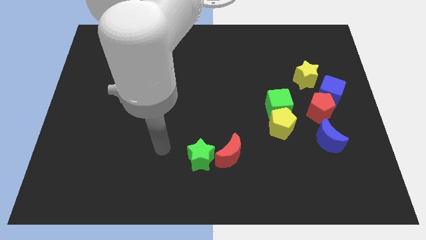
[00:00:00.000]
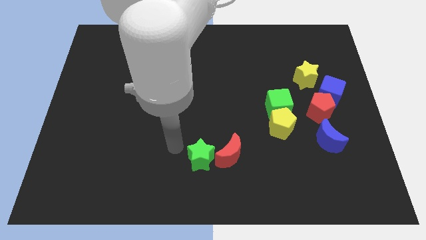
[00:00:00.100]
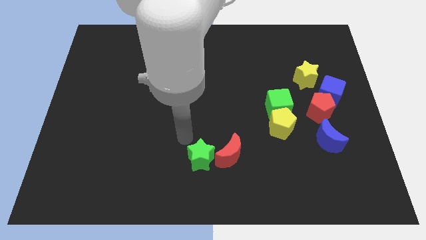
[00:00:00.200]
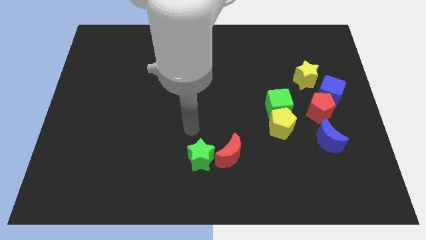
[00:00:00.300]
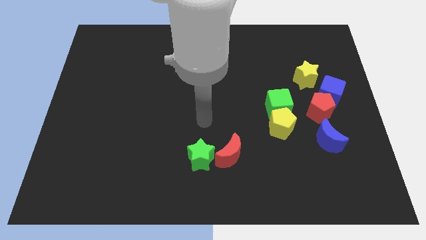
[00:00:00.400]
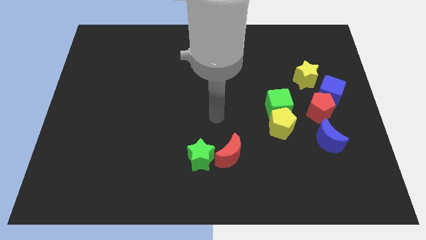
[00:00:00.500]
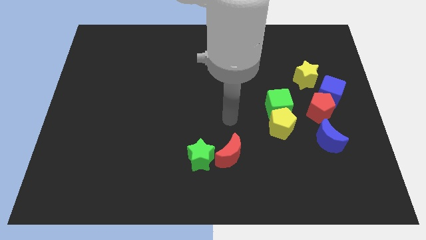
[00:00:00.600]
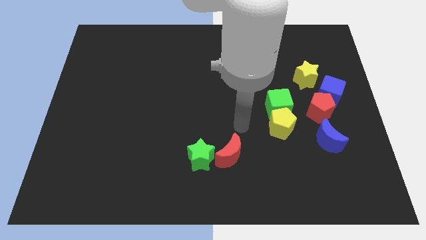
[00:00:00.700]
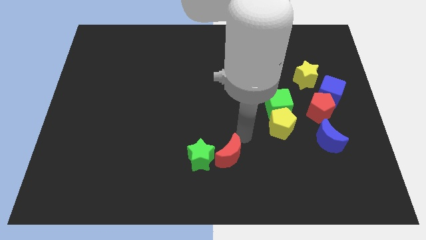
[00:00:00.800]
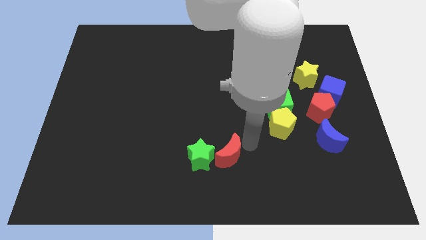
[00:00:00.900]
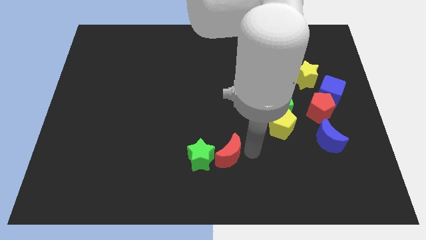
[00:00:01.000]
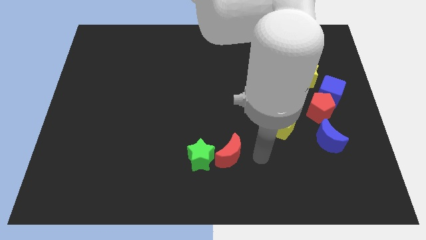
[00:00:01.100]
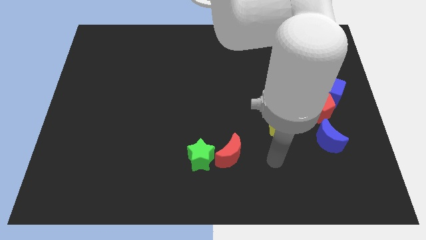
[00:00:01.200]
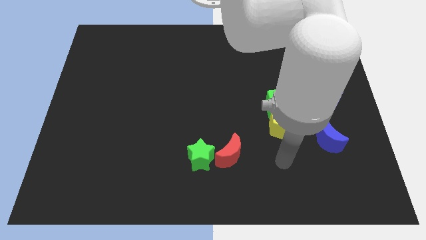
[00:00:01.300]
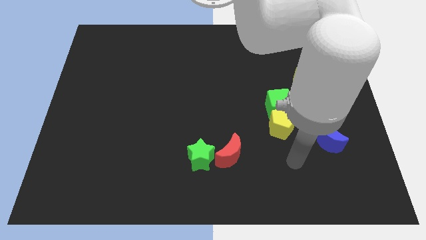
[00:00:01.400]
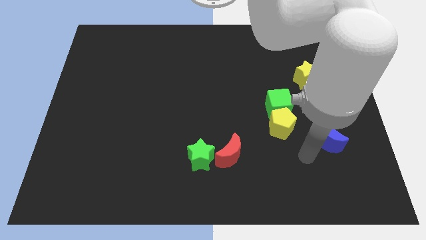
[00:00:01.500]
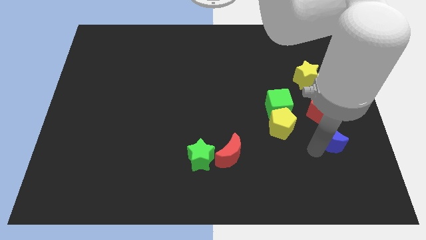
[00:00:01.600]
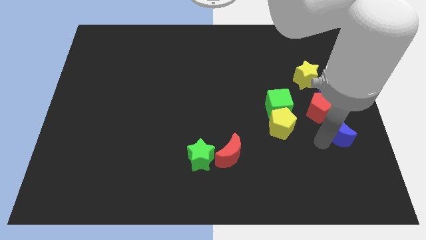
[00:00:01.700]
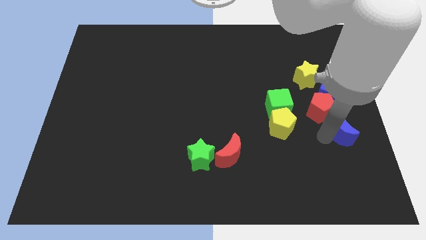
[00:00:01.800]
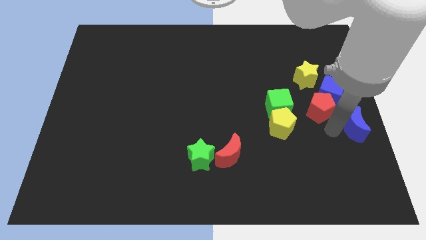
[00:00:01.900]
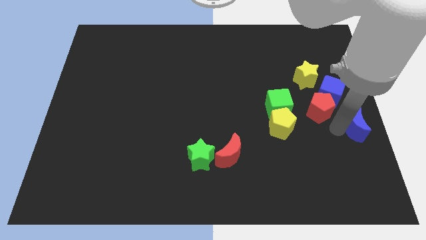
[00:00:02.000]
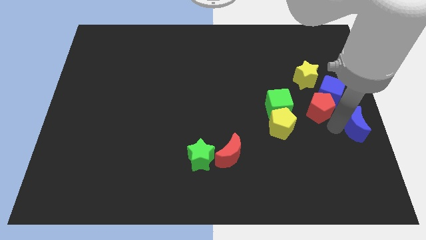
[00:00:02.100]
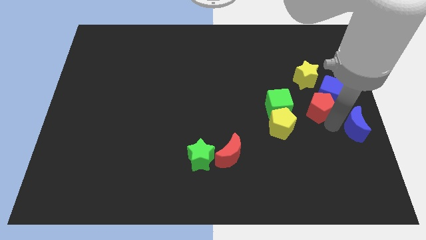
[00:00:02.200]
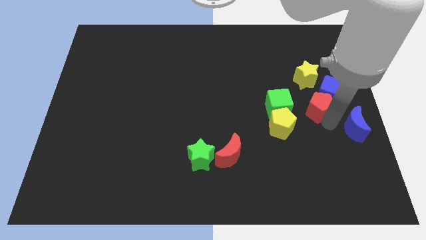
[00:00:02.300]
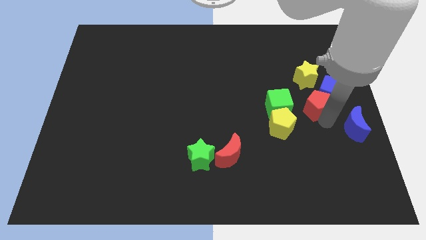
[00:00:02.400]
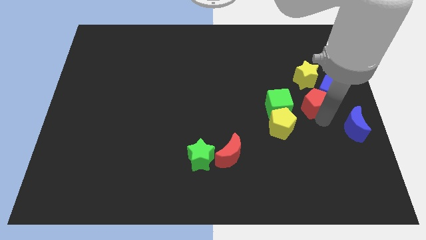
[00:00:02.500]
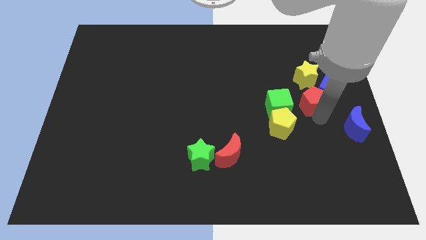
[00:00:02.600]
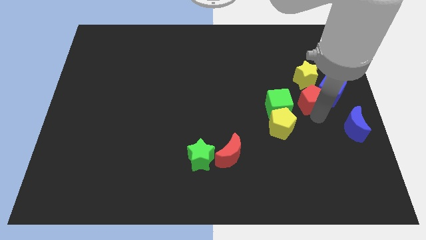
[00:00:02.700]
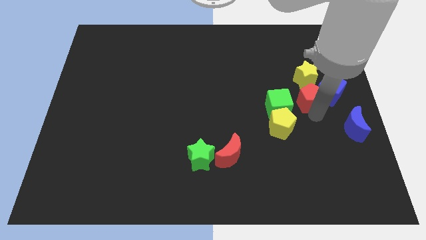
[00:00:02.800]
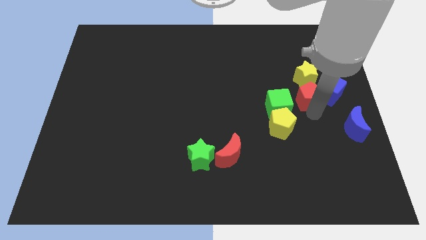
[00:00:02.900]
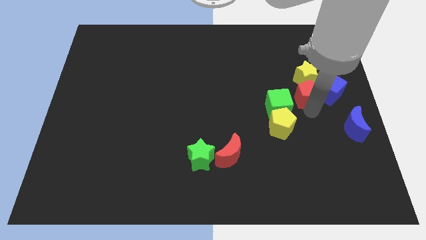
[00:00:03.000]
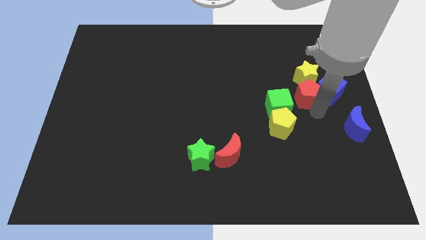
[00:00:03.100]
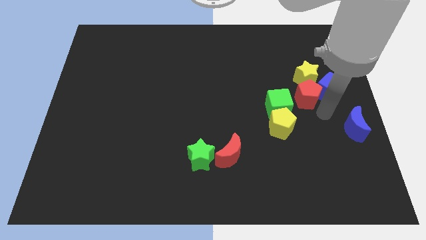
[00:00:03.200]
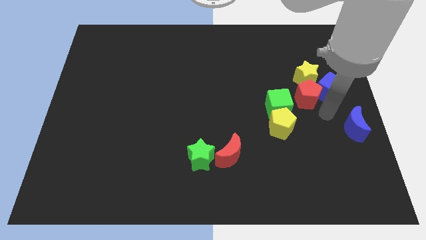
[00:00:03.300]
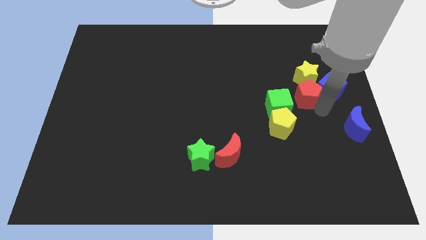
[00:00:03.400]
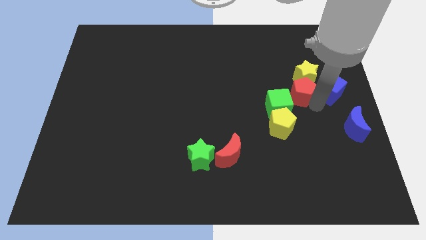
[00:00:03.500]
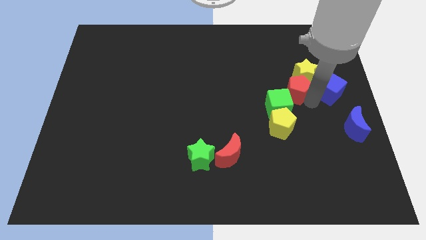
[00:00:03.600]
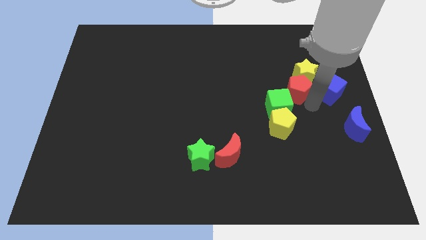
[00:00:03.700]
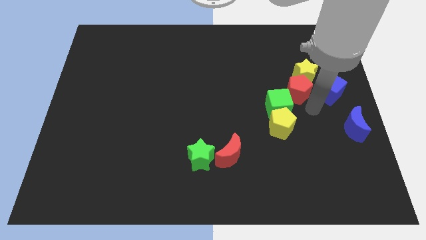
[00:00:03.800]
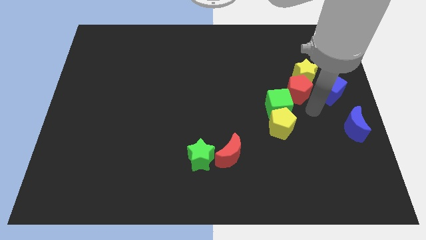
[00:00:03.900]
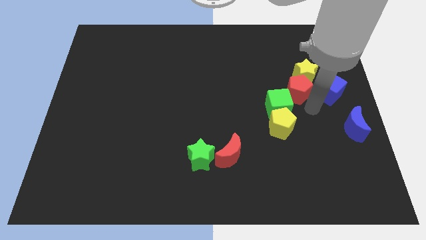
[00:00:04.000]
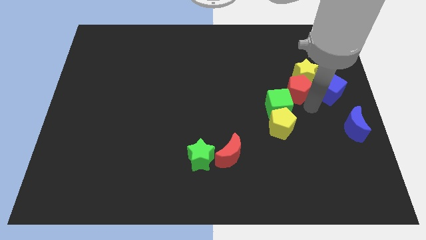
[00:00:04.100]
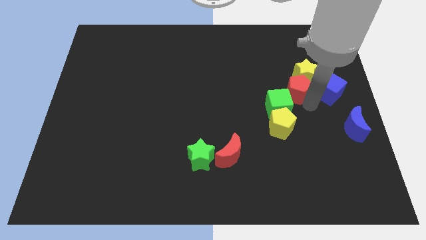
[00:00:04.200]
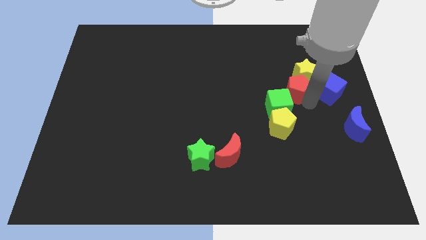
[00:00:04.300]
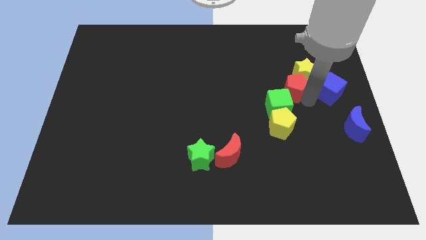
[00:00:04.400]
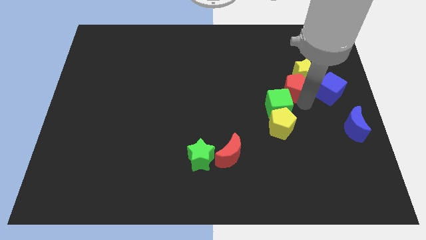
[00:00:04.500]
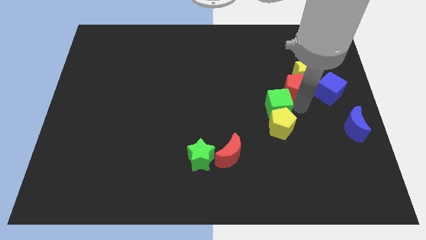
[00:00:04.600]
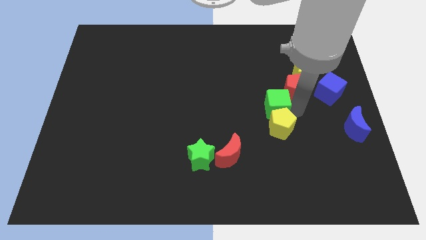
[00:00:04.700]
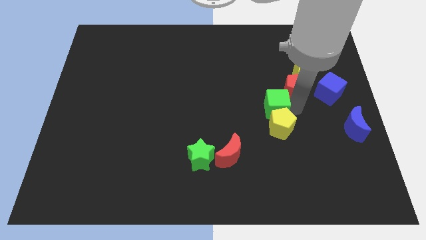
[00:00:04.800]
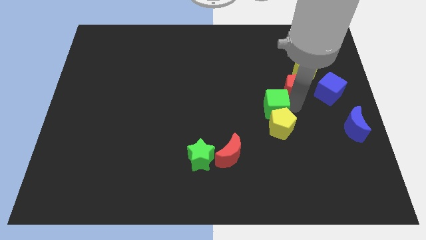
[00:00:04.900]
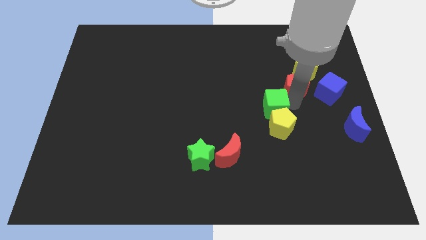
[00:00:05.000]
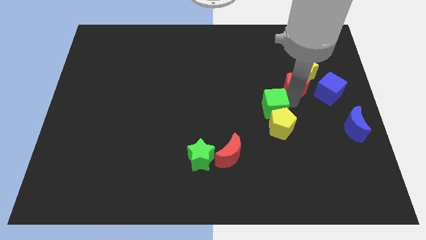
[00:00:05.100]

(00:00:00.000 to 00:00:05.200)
push the red pentagon to the top left side of the blue cube

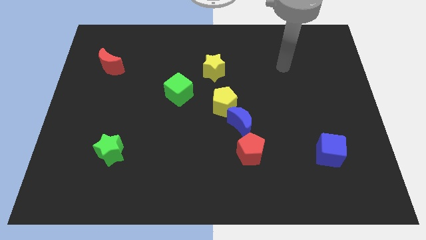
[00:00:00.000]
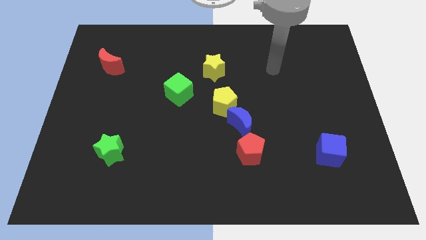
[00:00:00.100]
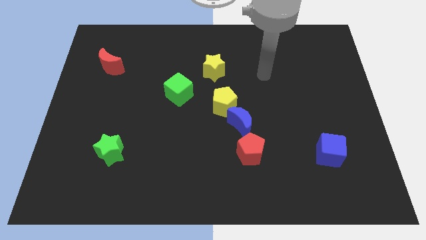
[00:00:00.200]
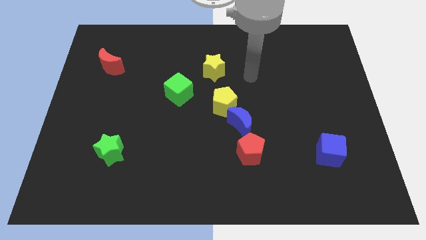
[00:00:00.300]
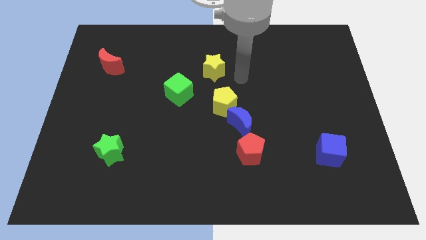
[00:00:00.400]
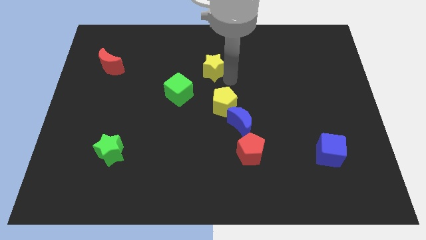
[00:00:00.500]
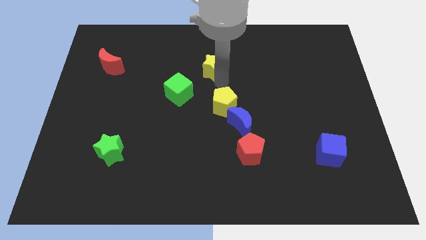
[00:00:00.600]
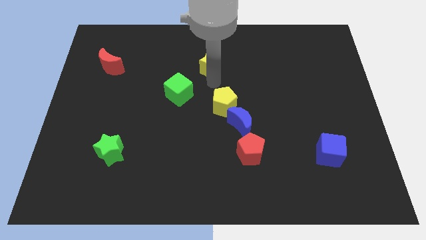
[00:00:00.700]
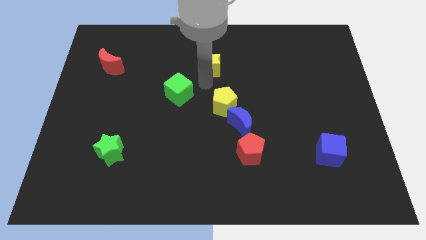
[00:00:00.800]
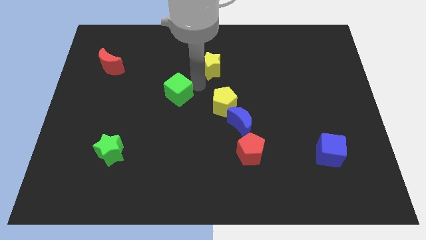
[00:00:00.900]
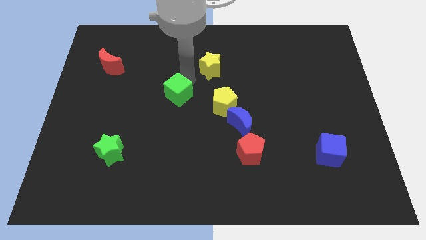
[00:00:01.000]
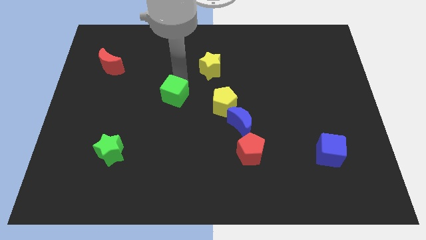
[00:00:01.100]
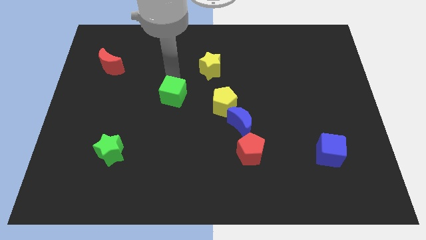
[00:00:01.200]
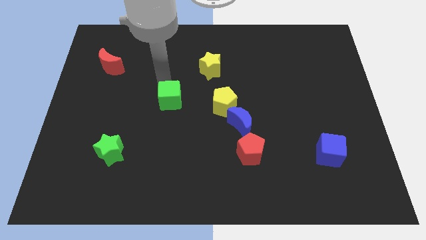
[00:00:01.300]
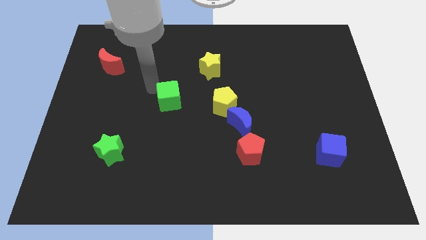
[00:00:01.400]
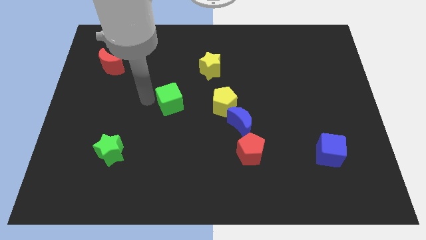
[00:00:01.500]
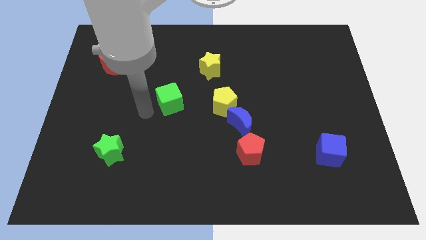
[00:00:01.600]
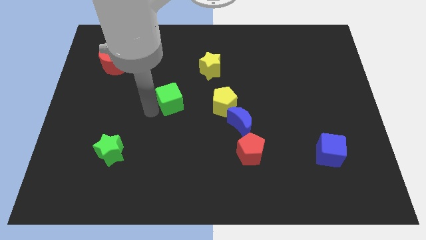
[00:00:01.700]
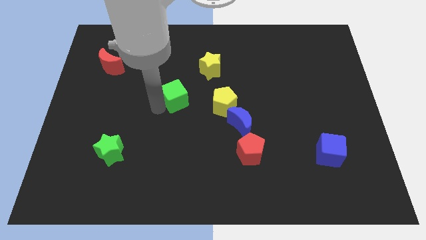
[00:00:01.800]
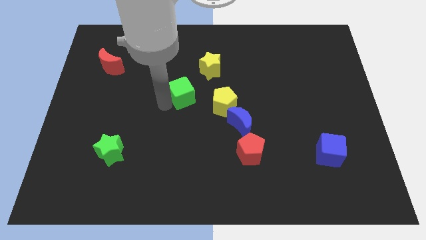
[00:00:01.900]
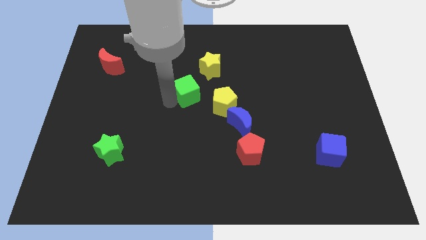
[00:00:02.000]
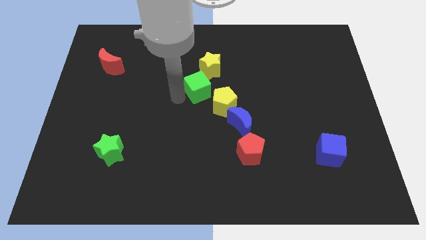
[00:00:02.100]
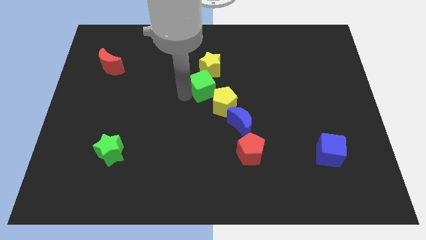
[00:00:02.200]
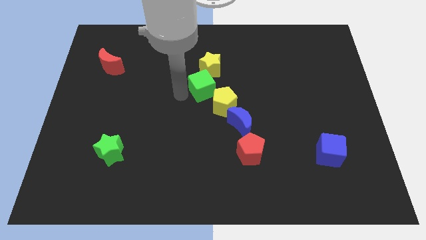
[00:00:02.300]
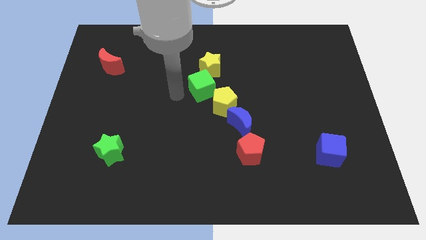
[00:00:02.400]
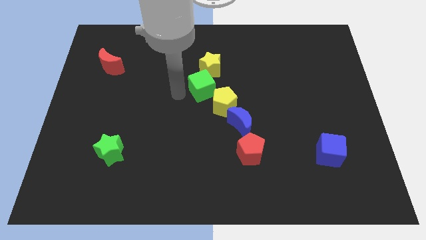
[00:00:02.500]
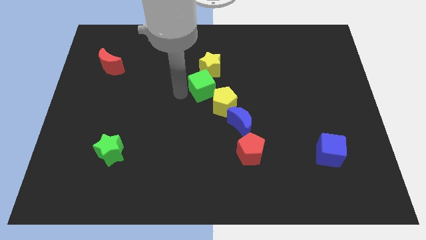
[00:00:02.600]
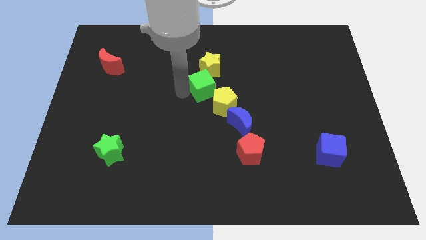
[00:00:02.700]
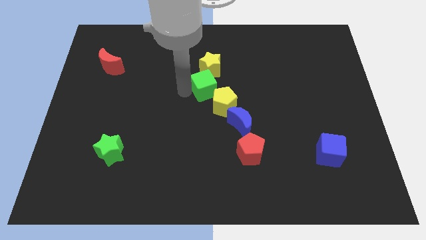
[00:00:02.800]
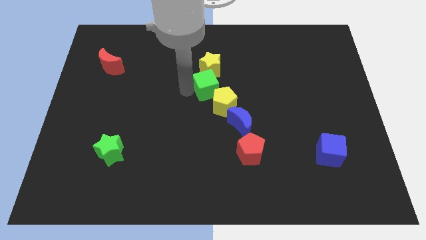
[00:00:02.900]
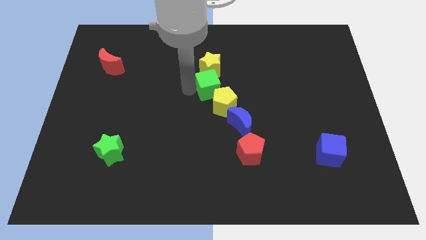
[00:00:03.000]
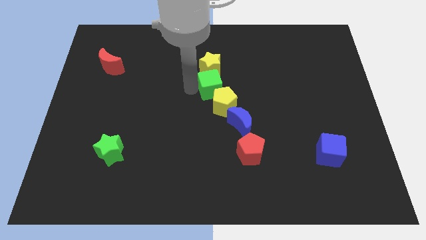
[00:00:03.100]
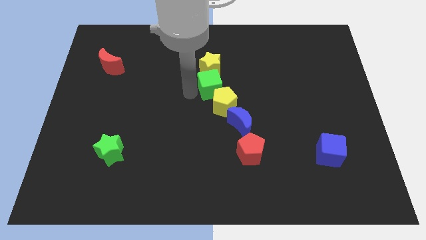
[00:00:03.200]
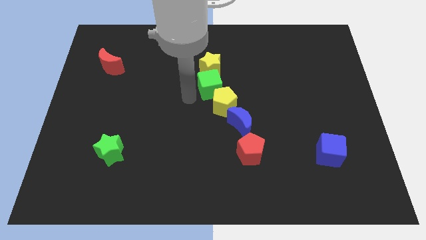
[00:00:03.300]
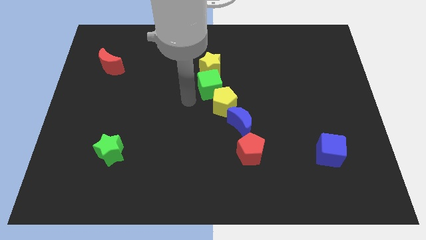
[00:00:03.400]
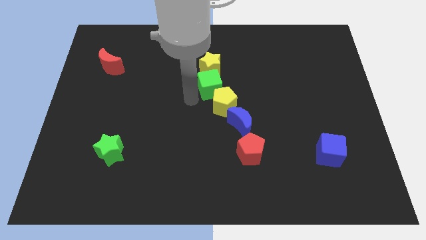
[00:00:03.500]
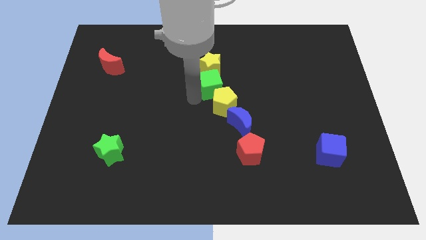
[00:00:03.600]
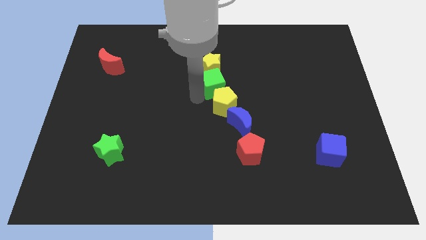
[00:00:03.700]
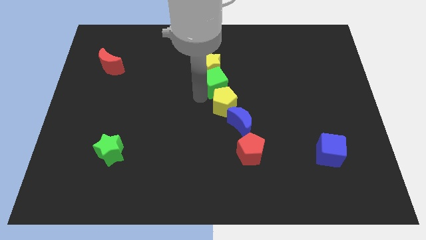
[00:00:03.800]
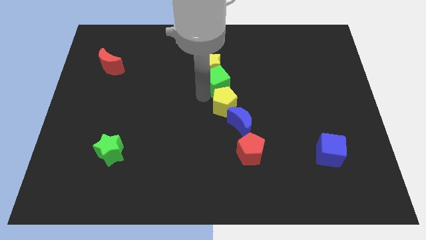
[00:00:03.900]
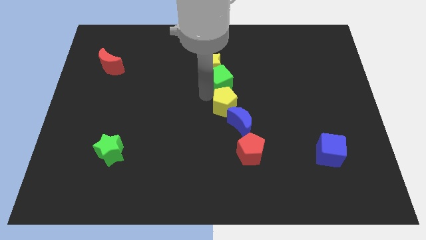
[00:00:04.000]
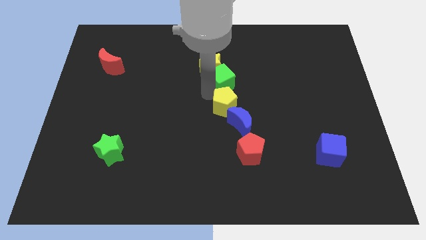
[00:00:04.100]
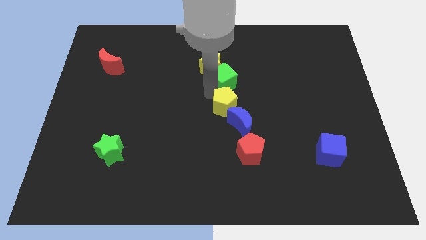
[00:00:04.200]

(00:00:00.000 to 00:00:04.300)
put the green cube right of the yellow star
